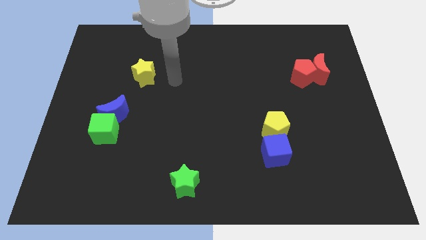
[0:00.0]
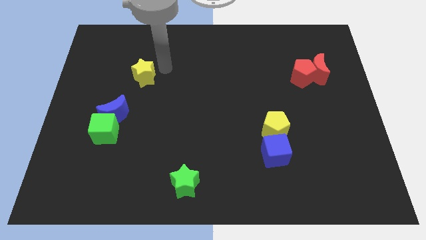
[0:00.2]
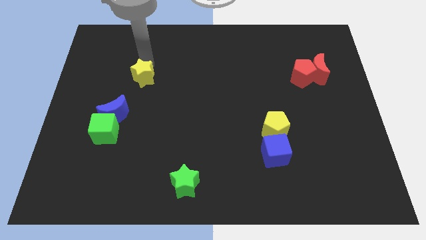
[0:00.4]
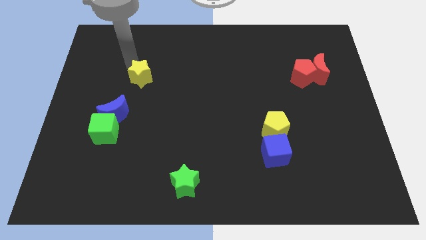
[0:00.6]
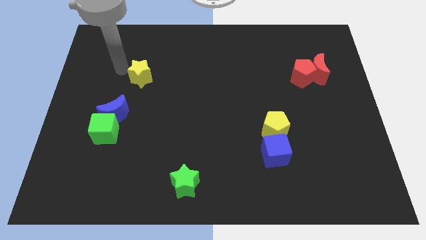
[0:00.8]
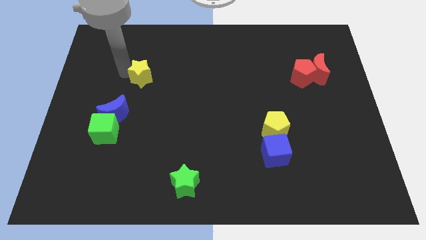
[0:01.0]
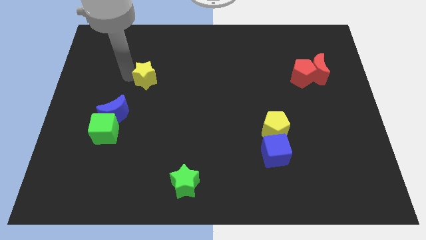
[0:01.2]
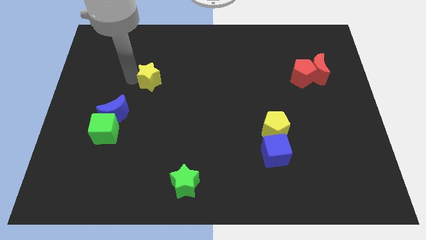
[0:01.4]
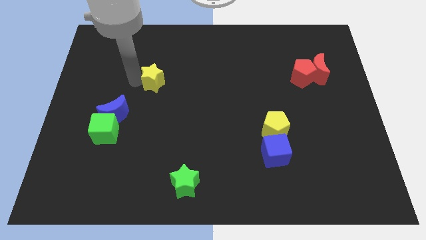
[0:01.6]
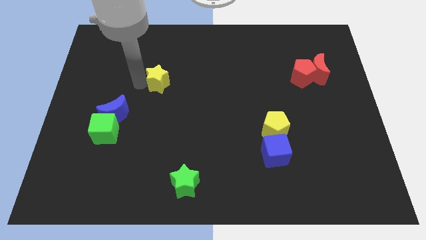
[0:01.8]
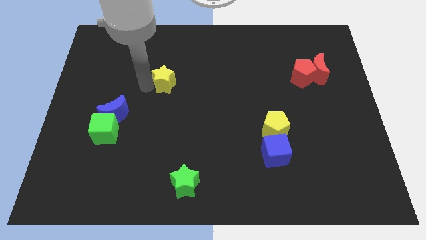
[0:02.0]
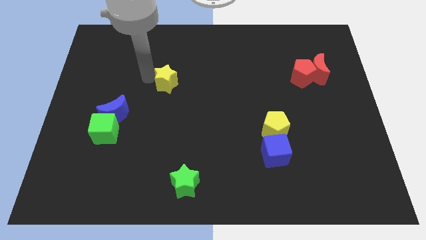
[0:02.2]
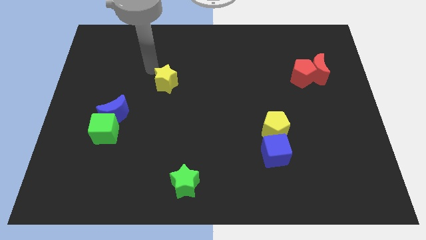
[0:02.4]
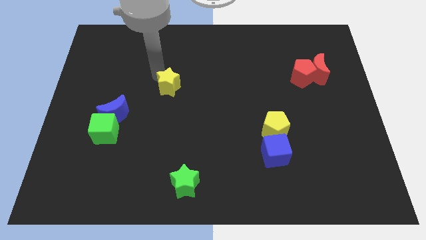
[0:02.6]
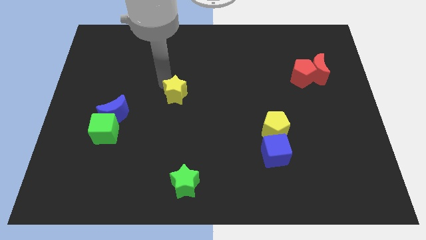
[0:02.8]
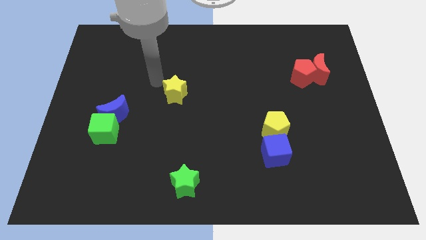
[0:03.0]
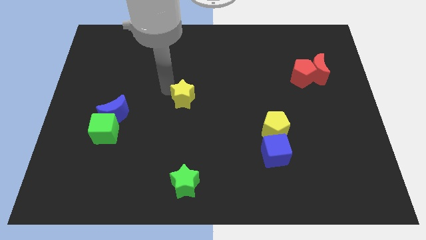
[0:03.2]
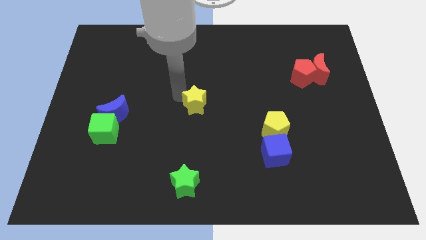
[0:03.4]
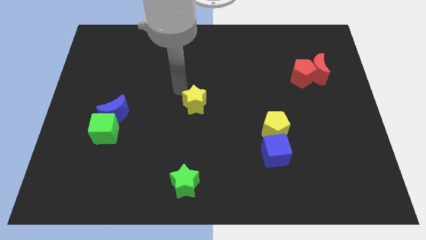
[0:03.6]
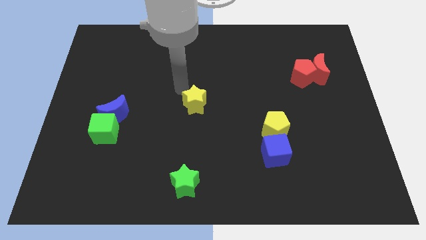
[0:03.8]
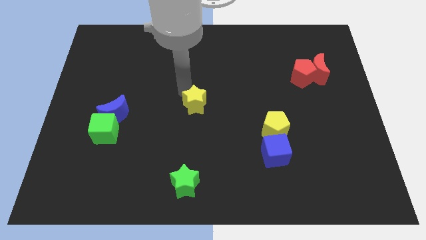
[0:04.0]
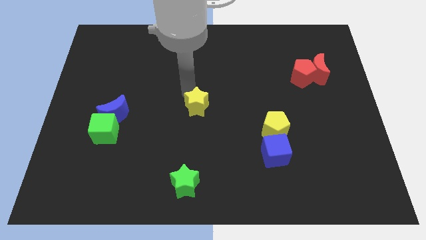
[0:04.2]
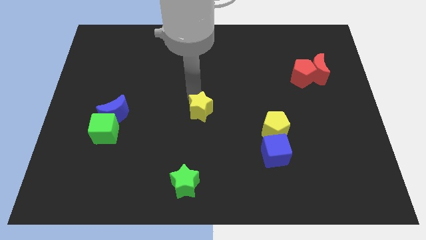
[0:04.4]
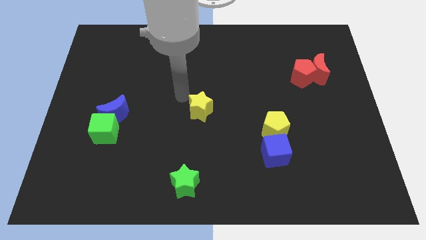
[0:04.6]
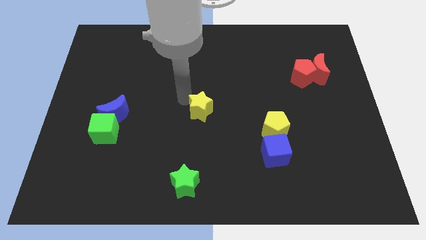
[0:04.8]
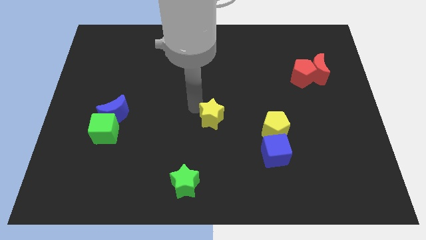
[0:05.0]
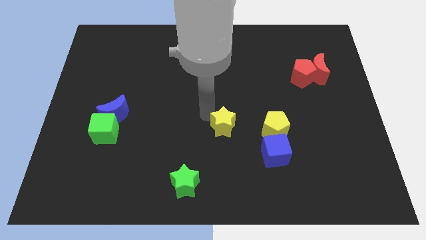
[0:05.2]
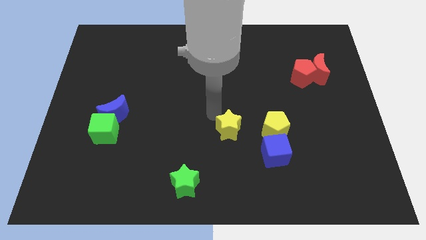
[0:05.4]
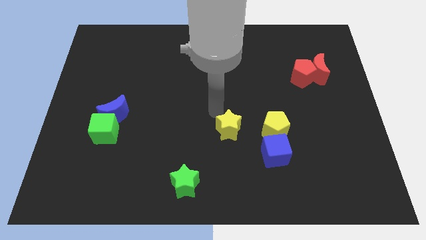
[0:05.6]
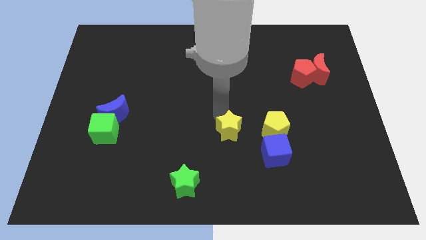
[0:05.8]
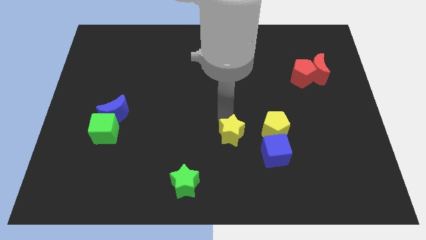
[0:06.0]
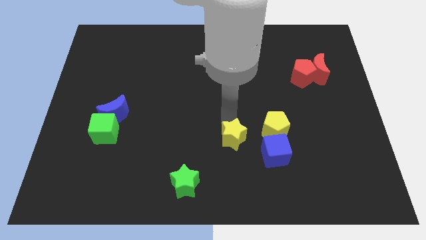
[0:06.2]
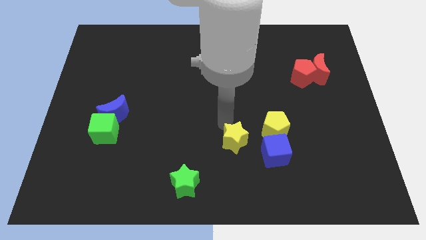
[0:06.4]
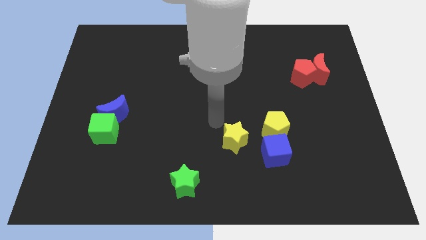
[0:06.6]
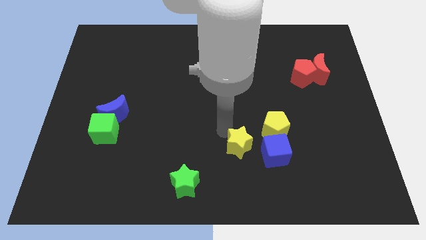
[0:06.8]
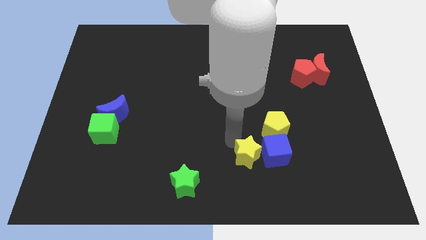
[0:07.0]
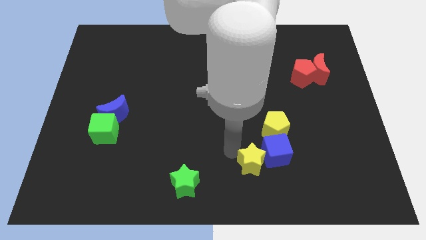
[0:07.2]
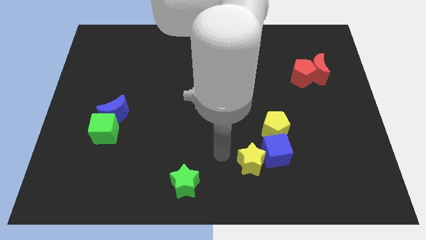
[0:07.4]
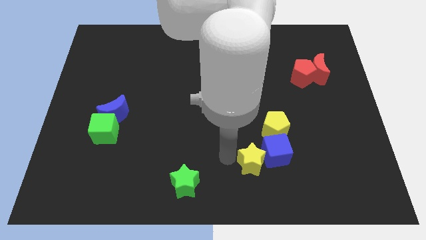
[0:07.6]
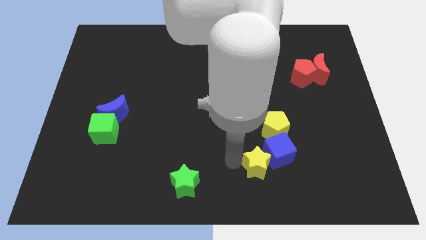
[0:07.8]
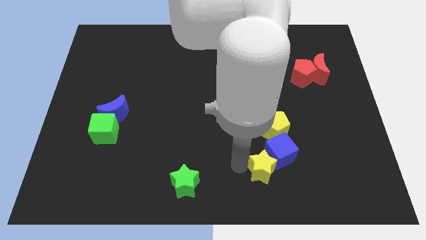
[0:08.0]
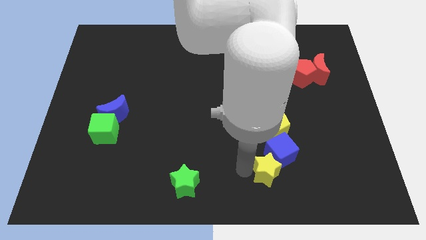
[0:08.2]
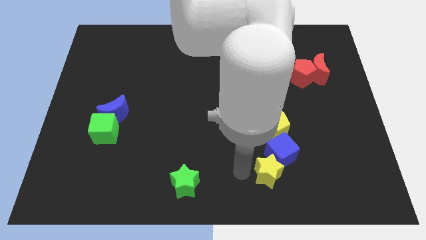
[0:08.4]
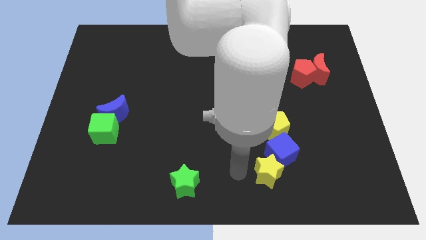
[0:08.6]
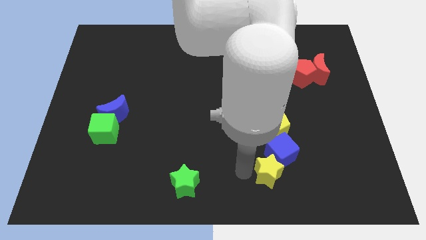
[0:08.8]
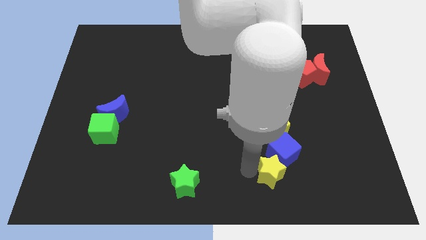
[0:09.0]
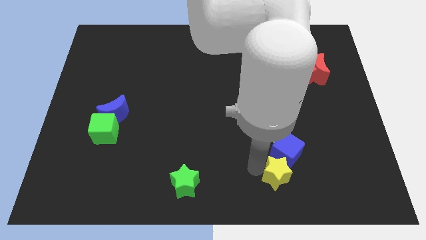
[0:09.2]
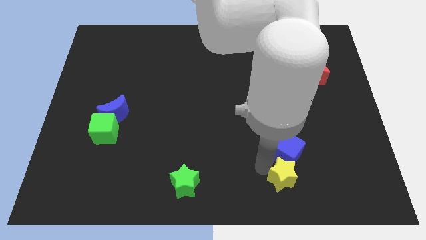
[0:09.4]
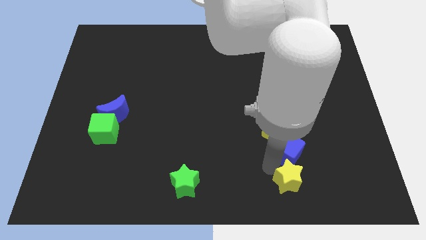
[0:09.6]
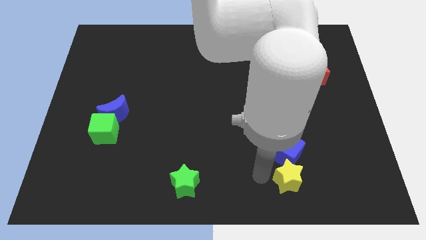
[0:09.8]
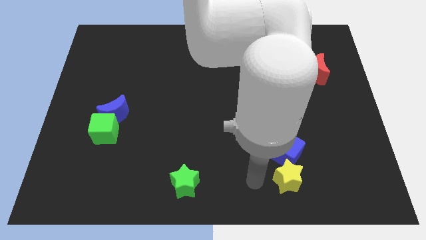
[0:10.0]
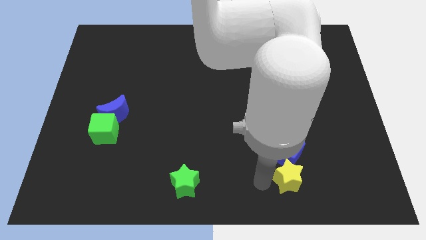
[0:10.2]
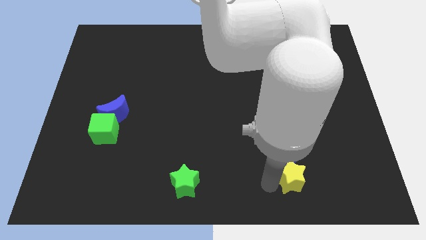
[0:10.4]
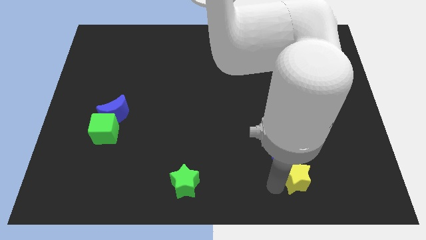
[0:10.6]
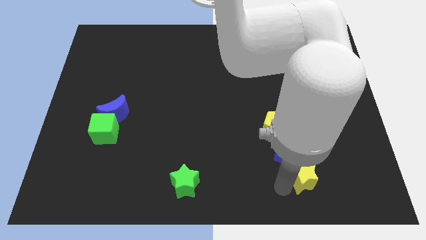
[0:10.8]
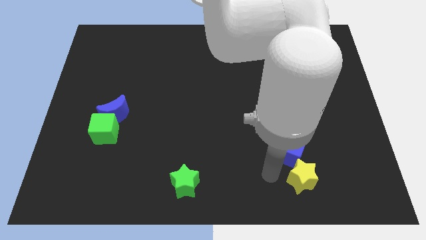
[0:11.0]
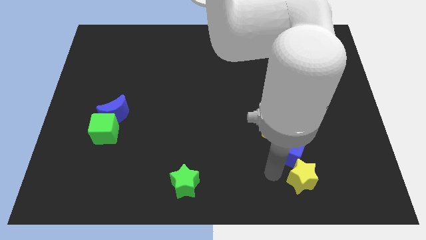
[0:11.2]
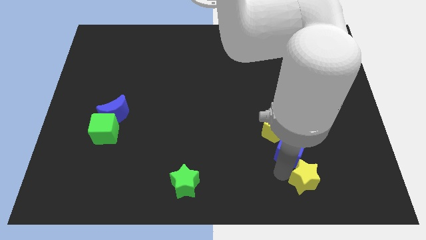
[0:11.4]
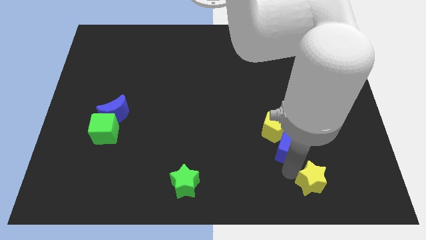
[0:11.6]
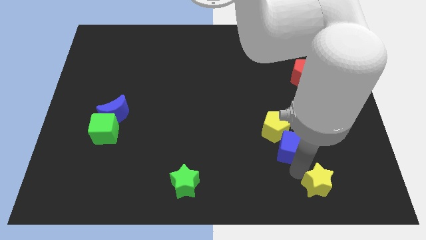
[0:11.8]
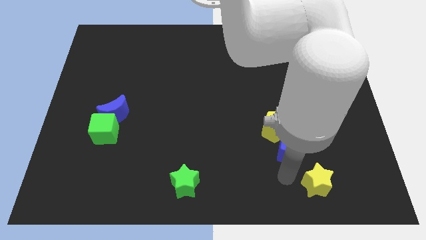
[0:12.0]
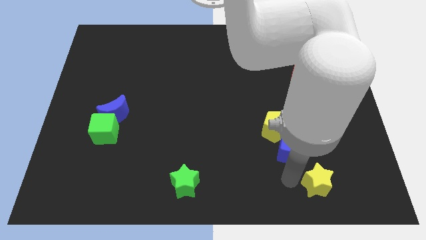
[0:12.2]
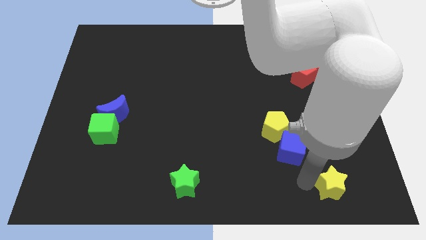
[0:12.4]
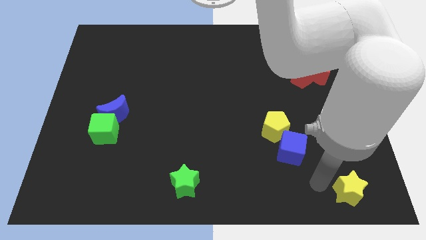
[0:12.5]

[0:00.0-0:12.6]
put the yellow star to the bottom right
